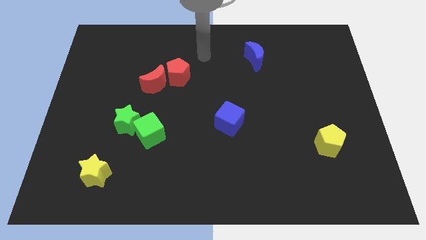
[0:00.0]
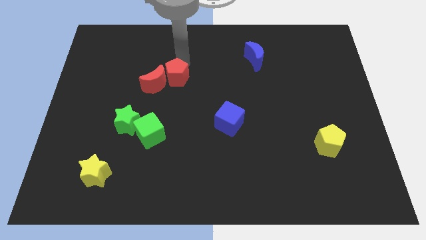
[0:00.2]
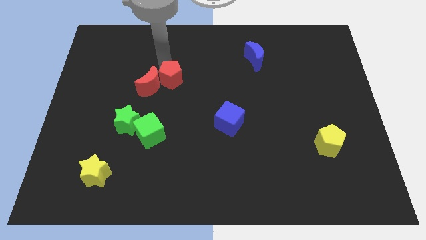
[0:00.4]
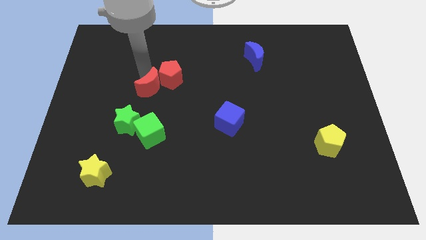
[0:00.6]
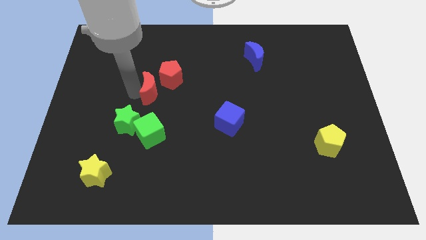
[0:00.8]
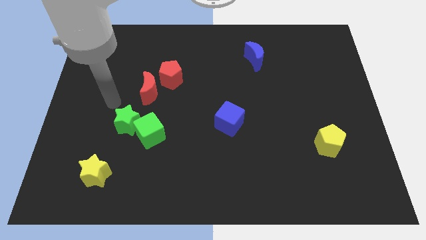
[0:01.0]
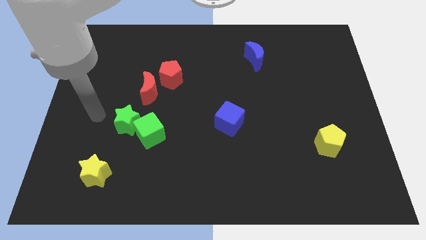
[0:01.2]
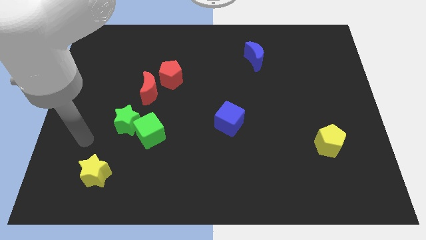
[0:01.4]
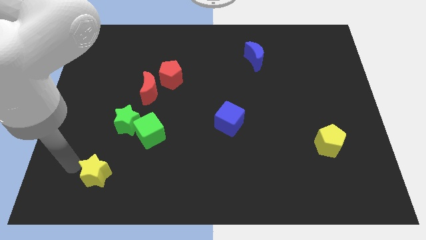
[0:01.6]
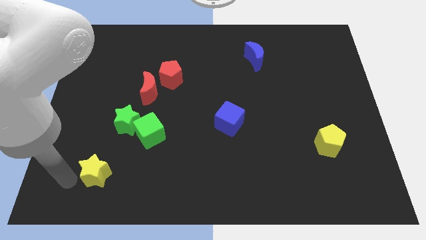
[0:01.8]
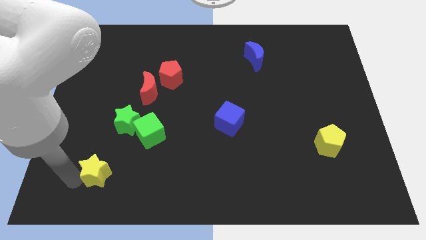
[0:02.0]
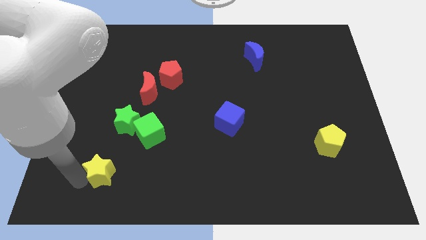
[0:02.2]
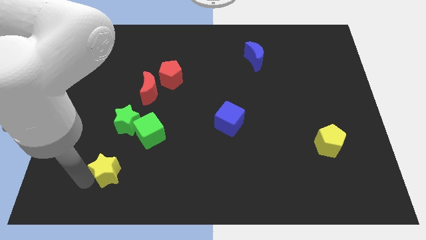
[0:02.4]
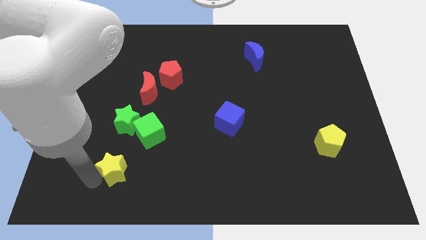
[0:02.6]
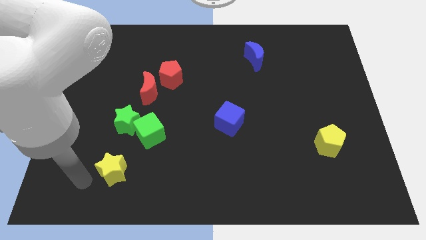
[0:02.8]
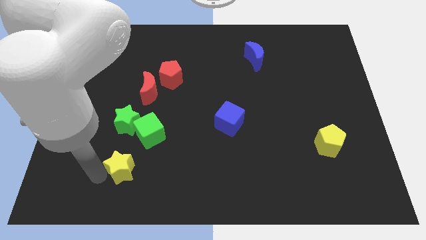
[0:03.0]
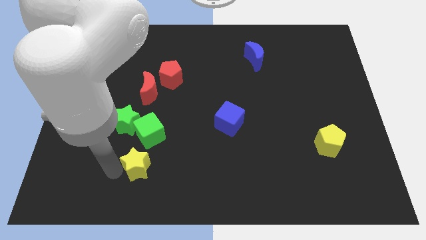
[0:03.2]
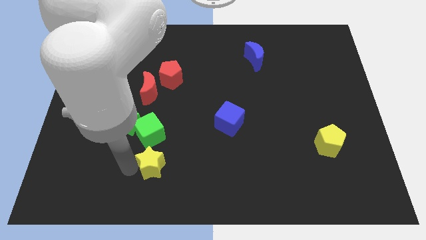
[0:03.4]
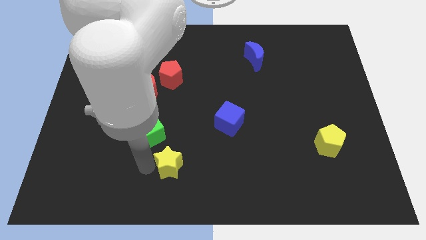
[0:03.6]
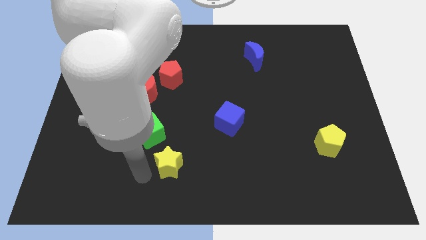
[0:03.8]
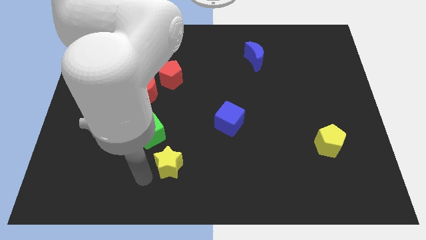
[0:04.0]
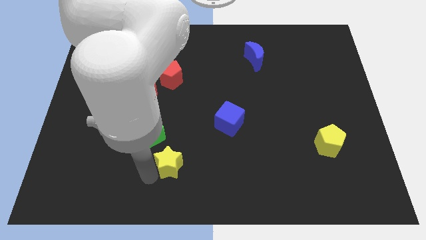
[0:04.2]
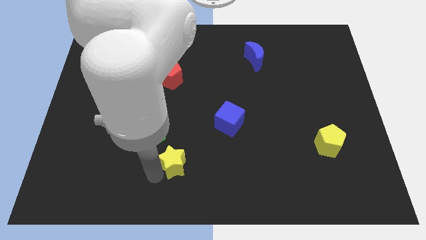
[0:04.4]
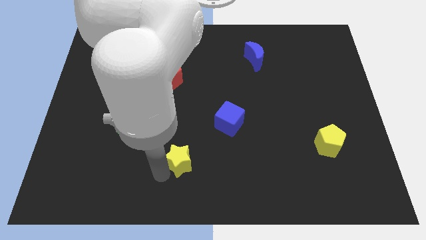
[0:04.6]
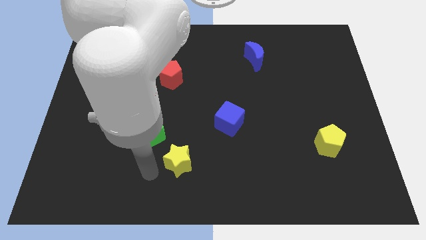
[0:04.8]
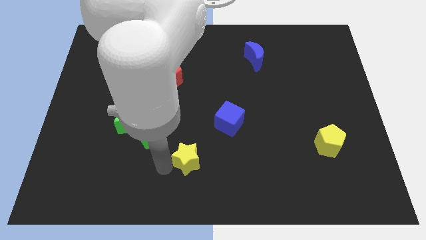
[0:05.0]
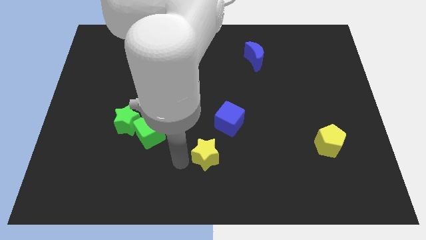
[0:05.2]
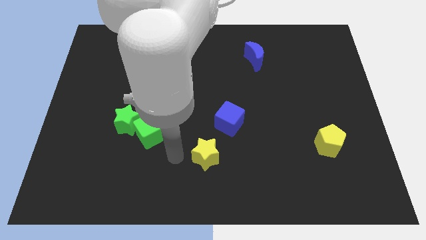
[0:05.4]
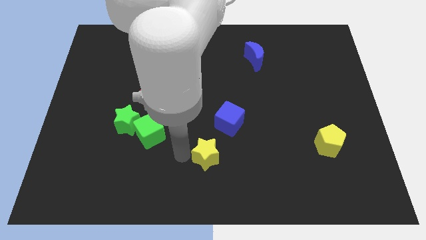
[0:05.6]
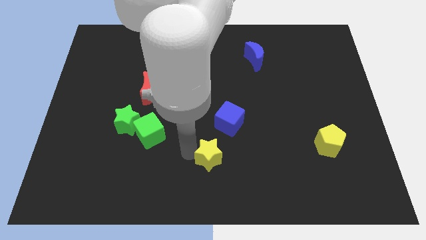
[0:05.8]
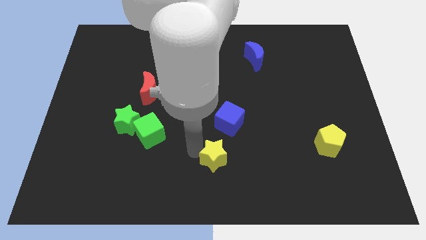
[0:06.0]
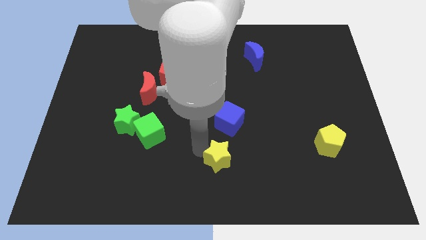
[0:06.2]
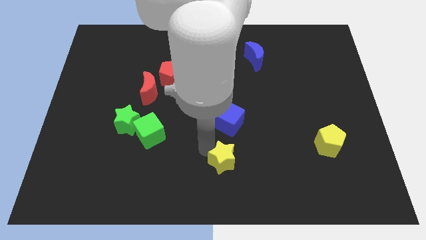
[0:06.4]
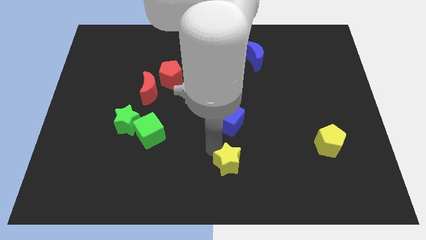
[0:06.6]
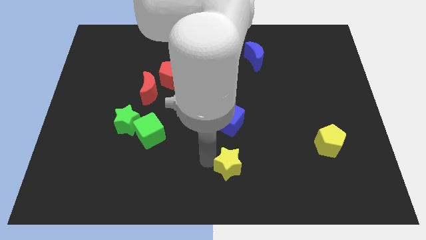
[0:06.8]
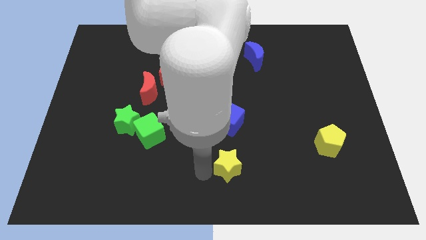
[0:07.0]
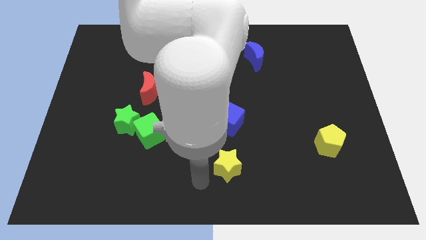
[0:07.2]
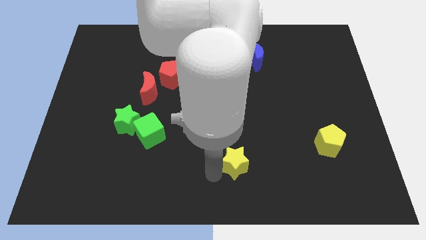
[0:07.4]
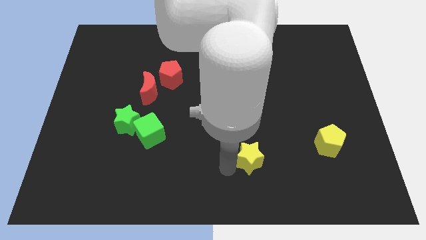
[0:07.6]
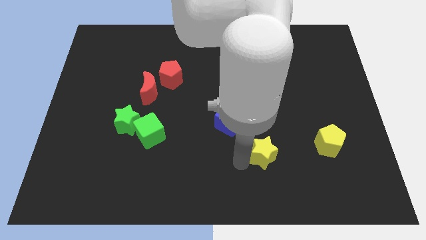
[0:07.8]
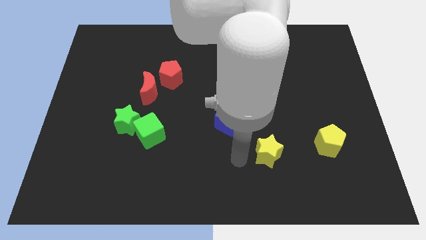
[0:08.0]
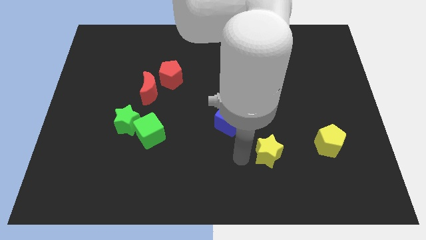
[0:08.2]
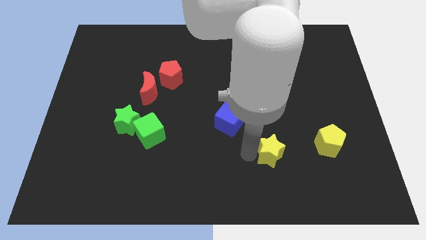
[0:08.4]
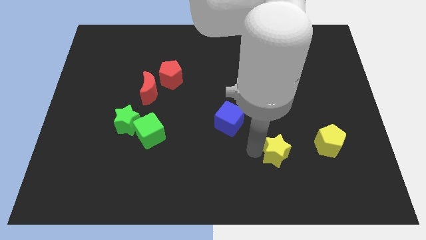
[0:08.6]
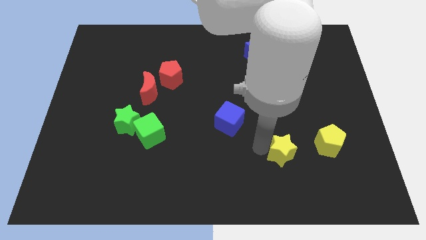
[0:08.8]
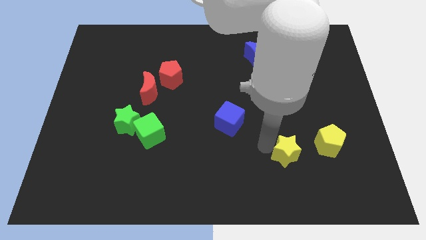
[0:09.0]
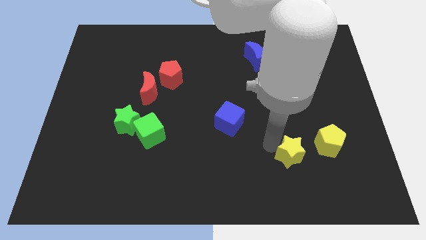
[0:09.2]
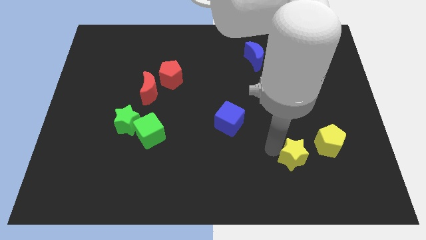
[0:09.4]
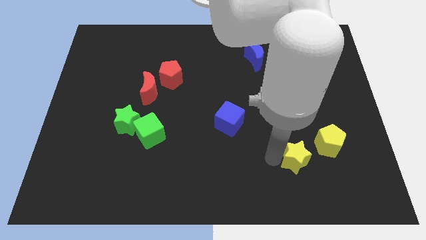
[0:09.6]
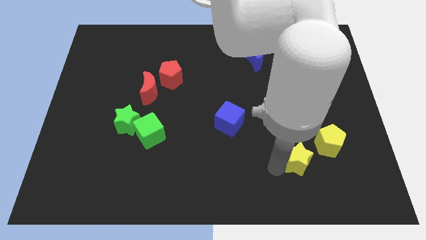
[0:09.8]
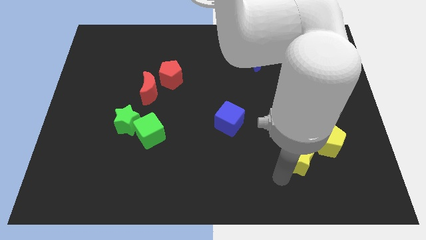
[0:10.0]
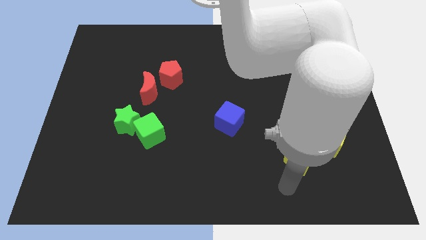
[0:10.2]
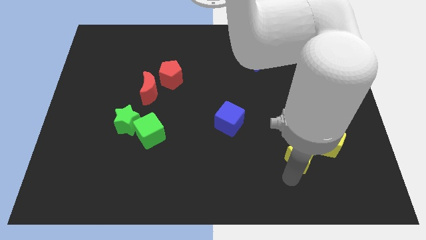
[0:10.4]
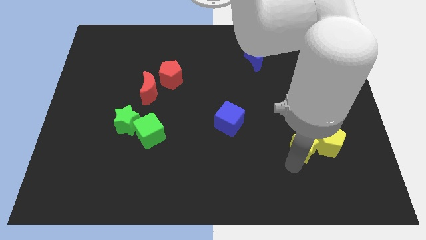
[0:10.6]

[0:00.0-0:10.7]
put the yellow star next to the yellow pentagon

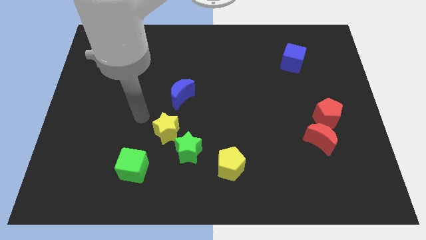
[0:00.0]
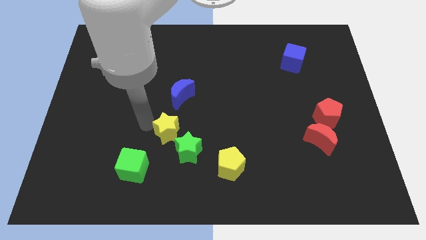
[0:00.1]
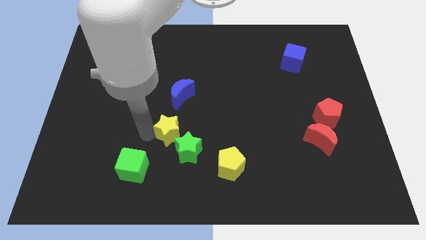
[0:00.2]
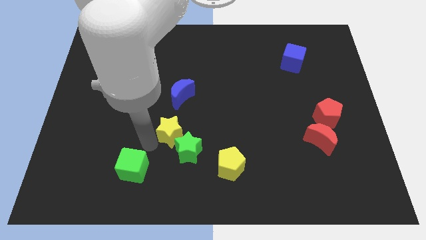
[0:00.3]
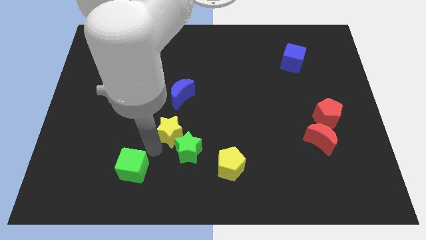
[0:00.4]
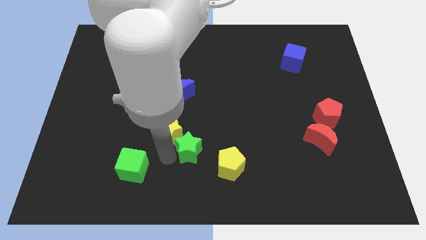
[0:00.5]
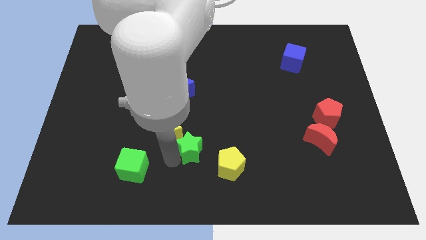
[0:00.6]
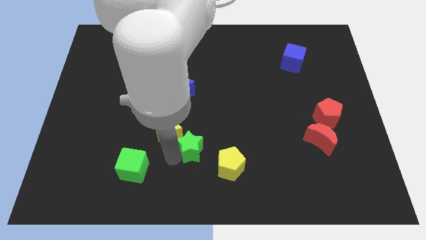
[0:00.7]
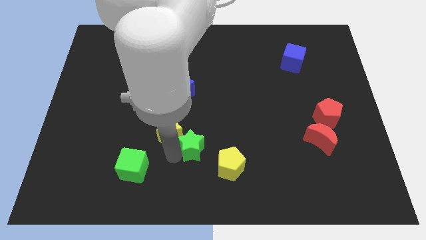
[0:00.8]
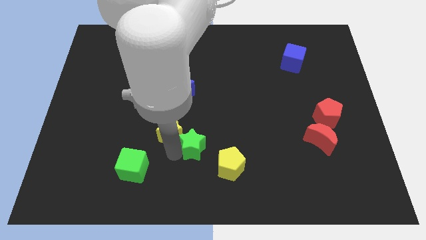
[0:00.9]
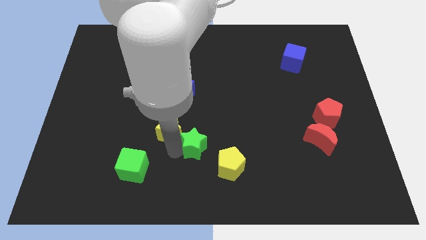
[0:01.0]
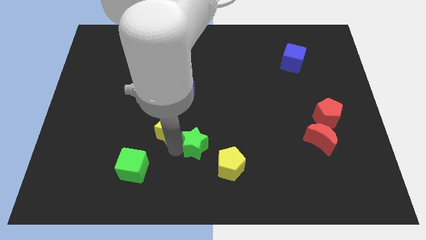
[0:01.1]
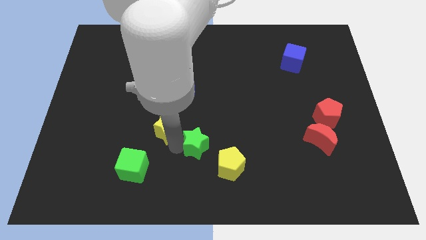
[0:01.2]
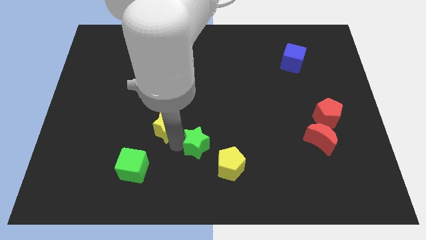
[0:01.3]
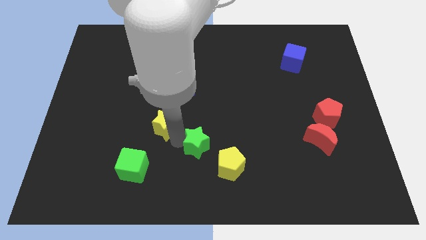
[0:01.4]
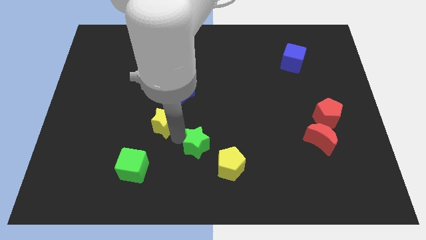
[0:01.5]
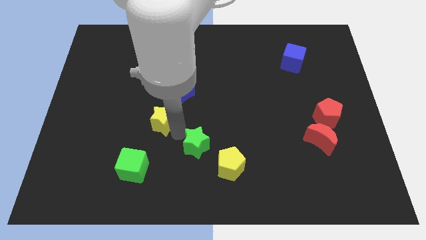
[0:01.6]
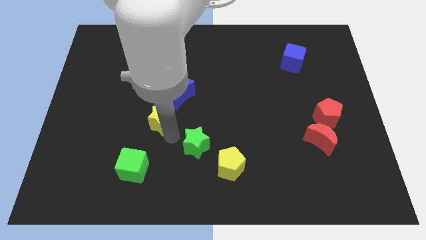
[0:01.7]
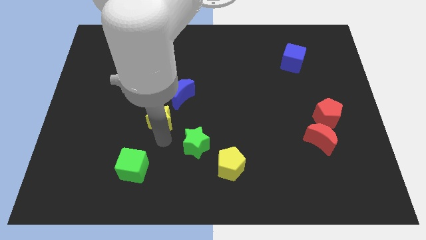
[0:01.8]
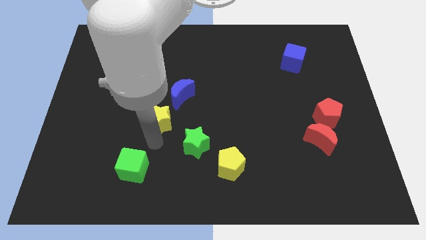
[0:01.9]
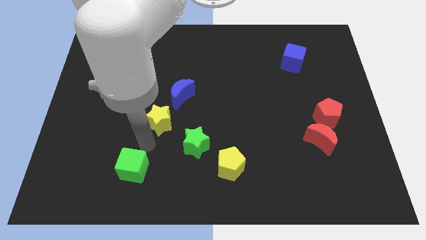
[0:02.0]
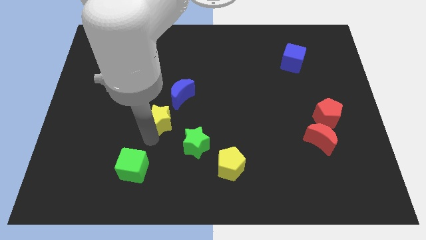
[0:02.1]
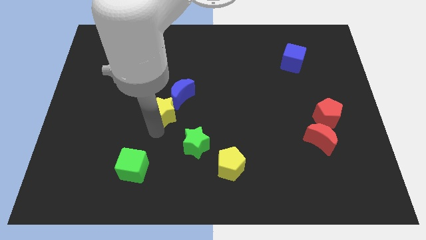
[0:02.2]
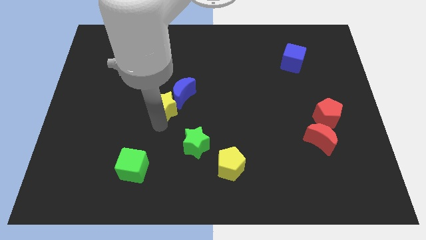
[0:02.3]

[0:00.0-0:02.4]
push the yellow star to the blue moon
